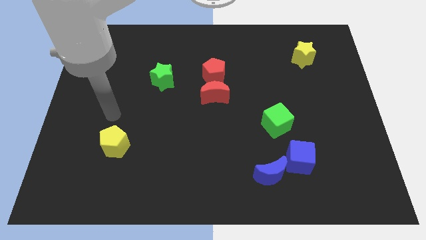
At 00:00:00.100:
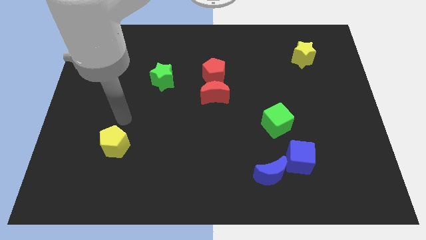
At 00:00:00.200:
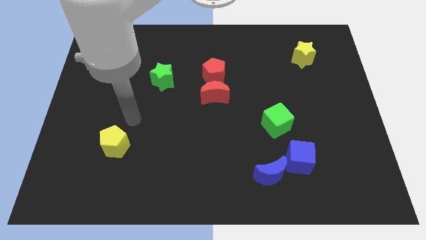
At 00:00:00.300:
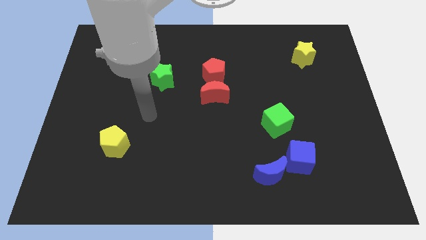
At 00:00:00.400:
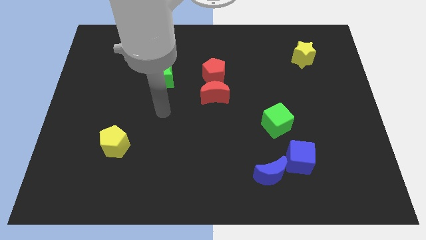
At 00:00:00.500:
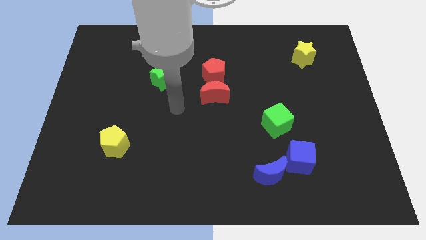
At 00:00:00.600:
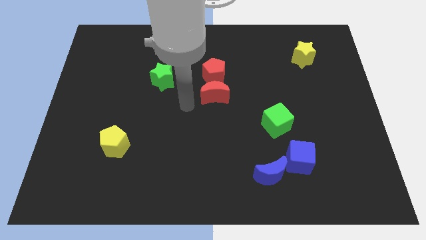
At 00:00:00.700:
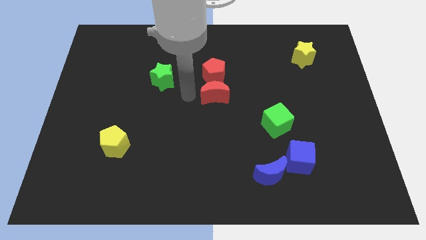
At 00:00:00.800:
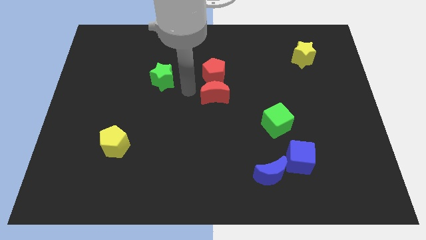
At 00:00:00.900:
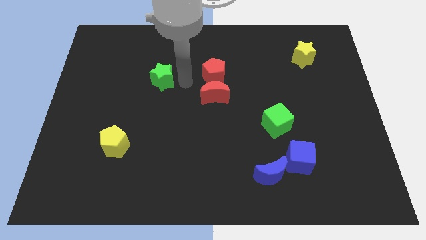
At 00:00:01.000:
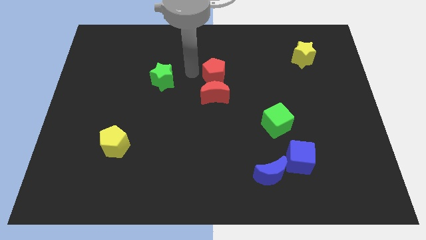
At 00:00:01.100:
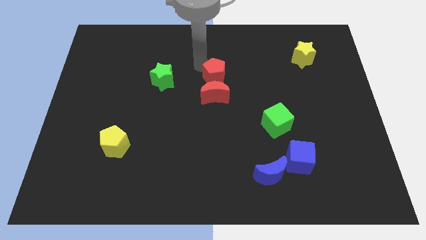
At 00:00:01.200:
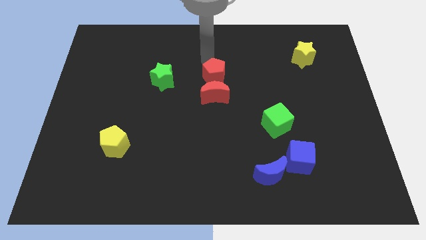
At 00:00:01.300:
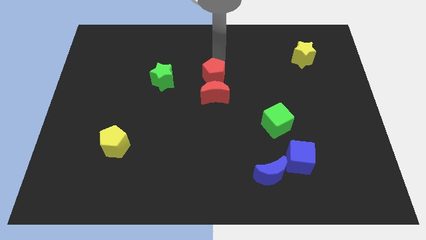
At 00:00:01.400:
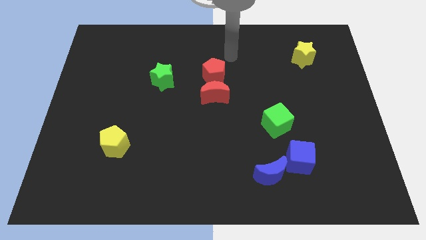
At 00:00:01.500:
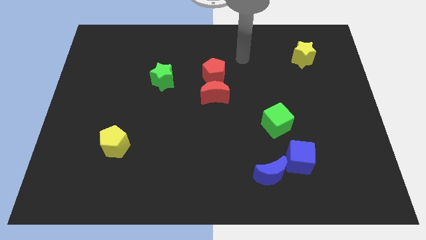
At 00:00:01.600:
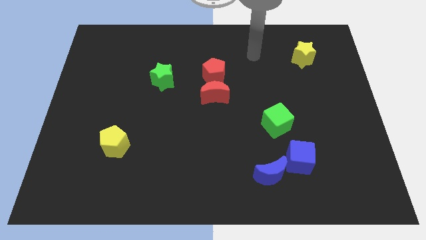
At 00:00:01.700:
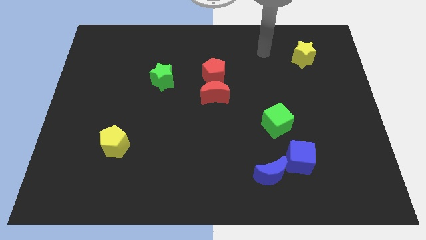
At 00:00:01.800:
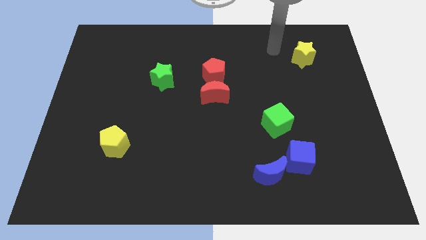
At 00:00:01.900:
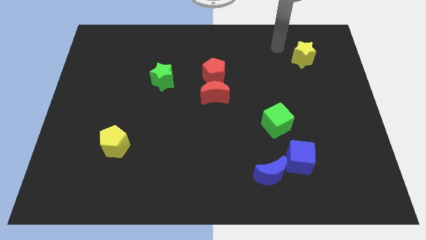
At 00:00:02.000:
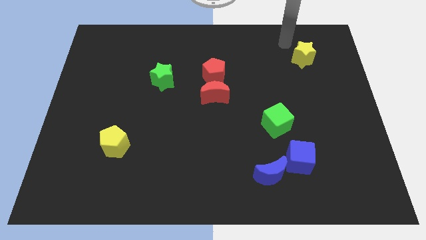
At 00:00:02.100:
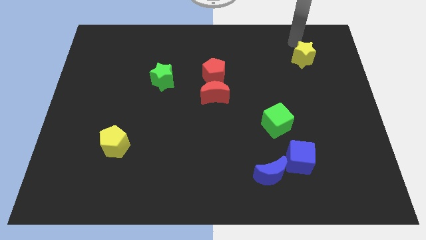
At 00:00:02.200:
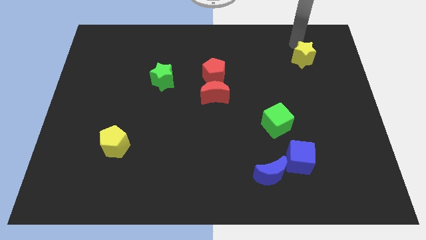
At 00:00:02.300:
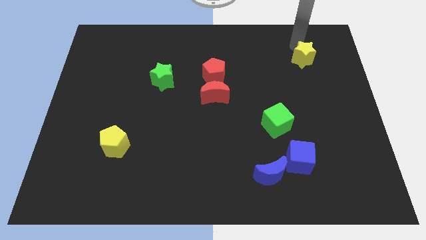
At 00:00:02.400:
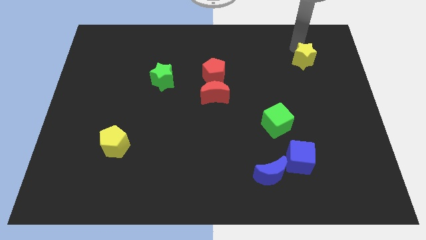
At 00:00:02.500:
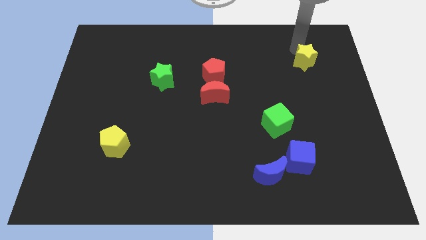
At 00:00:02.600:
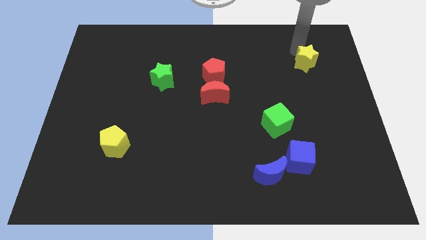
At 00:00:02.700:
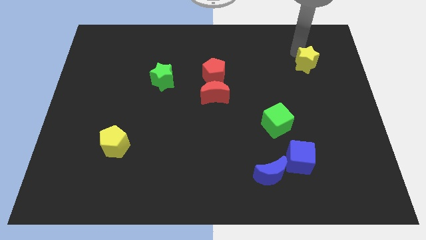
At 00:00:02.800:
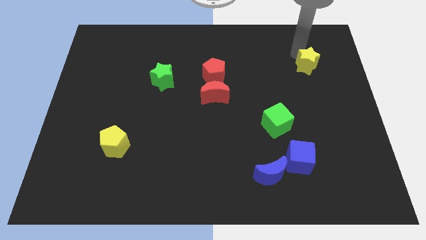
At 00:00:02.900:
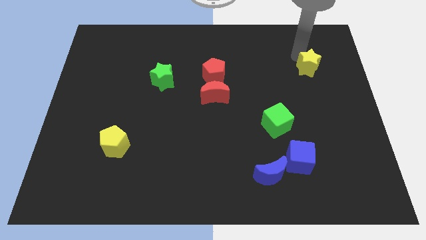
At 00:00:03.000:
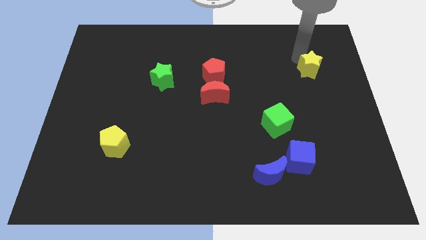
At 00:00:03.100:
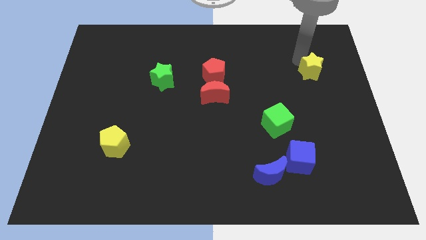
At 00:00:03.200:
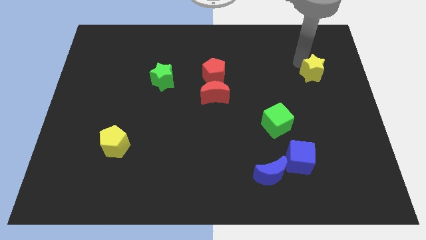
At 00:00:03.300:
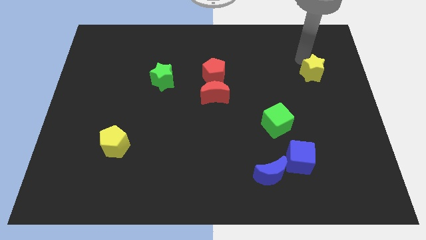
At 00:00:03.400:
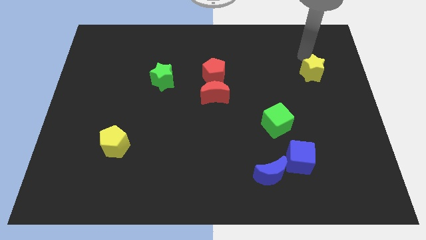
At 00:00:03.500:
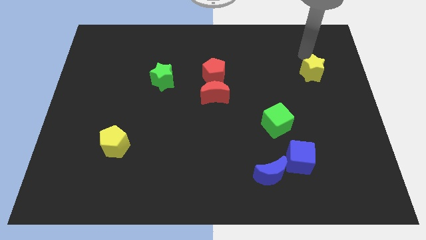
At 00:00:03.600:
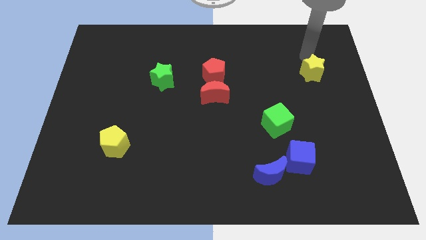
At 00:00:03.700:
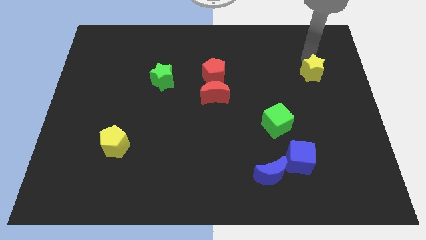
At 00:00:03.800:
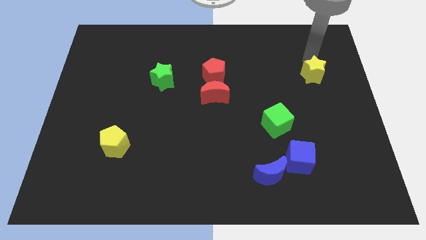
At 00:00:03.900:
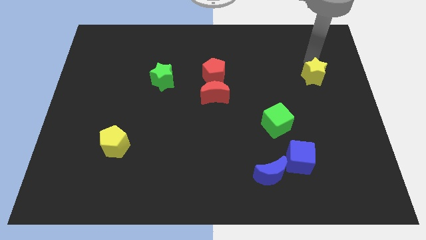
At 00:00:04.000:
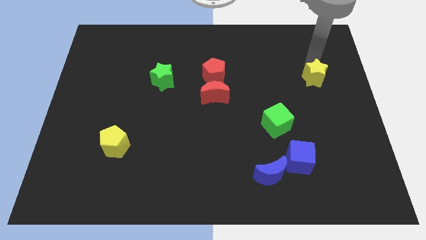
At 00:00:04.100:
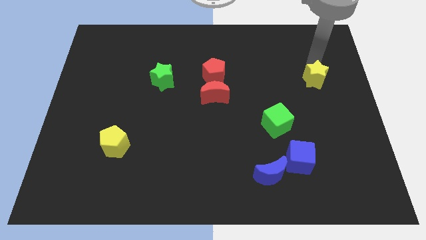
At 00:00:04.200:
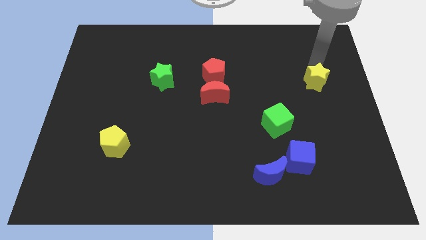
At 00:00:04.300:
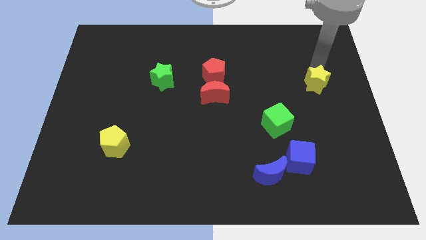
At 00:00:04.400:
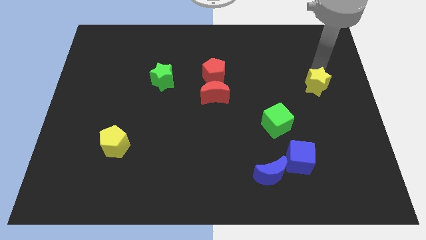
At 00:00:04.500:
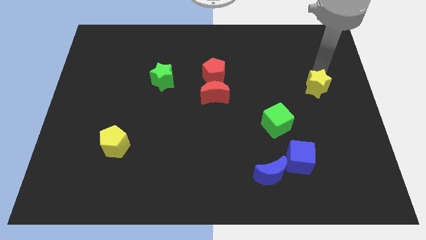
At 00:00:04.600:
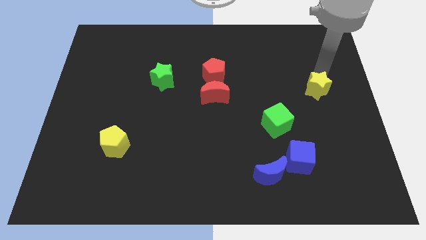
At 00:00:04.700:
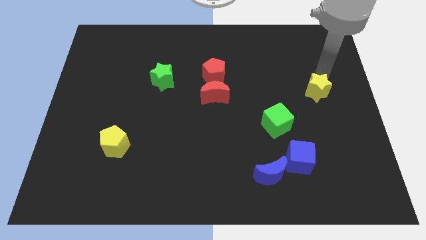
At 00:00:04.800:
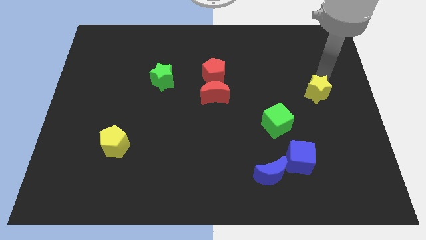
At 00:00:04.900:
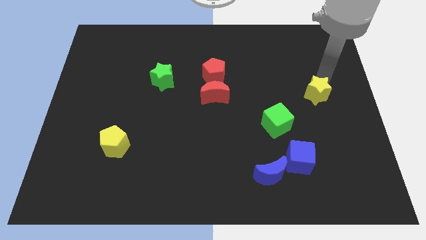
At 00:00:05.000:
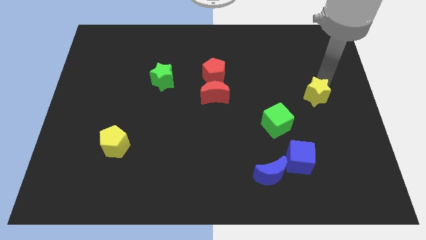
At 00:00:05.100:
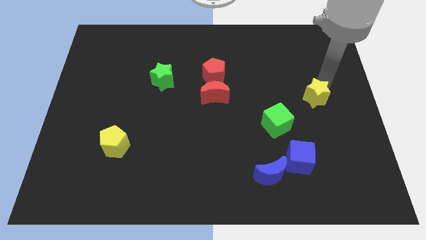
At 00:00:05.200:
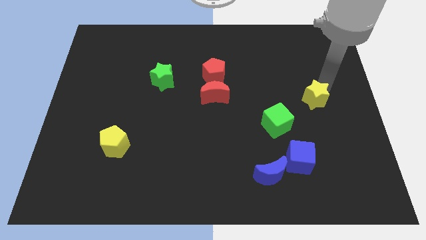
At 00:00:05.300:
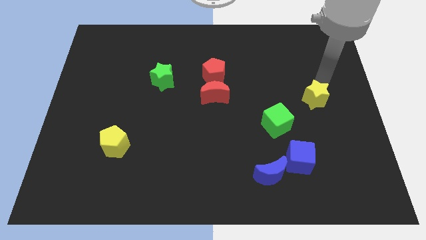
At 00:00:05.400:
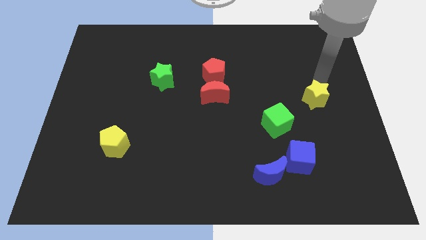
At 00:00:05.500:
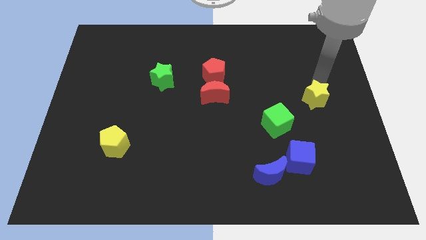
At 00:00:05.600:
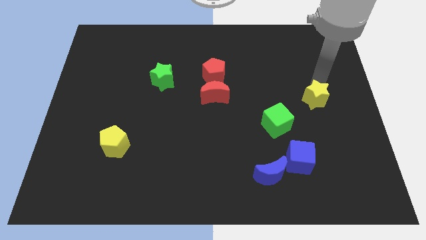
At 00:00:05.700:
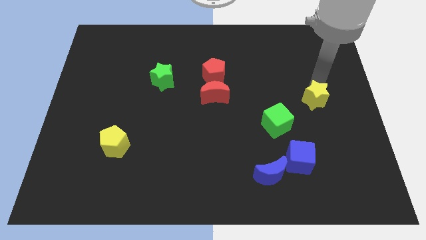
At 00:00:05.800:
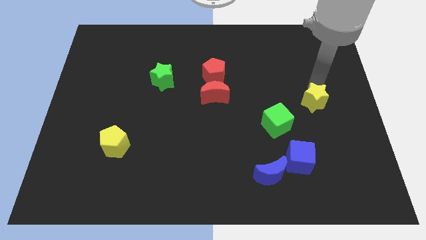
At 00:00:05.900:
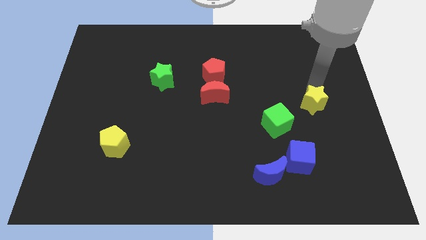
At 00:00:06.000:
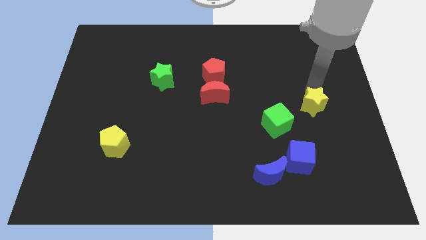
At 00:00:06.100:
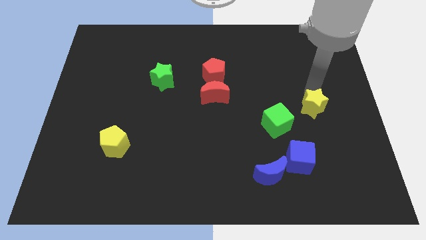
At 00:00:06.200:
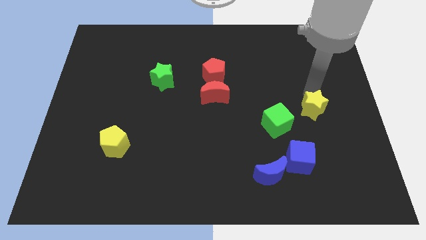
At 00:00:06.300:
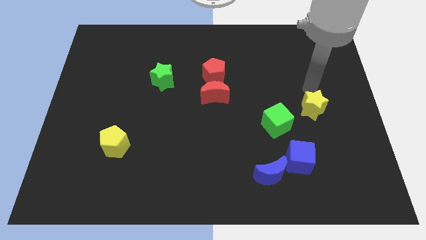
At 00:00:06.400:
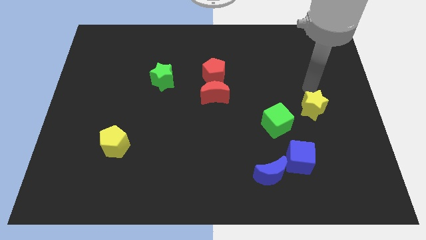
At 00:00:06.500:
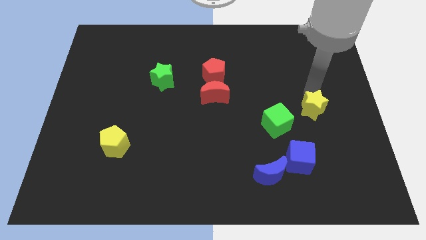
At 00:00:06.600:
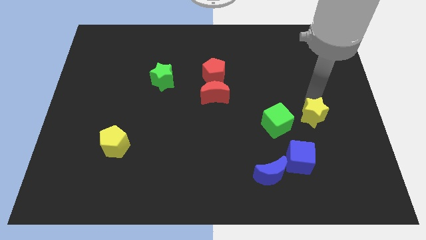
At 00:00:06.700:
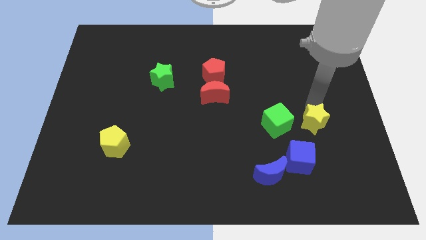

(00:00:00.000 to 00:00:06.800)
put the yellow star to the top right of the blue cube
